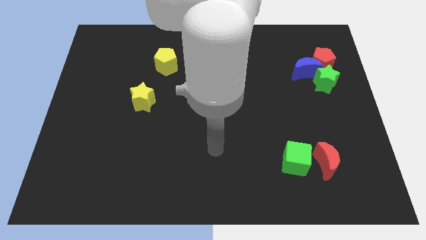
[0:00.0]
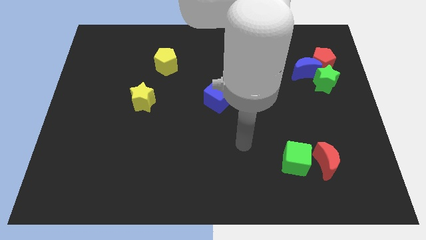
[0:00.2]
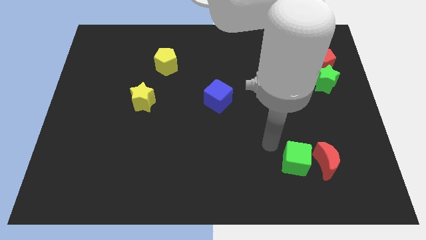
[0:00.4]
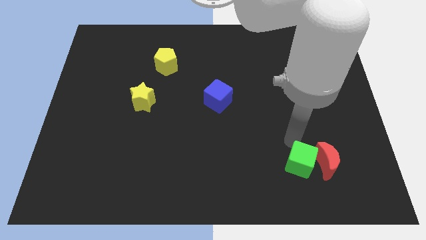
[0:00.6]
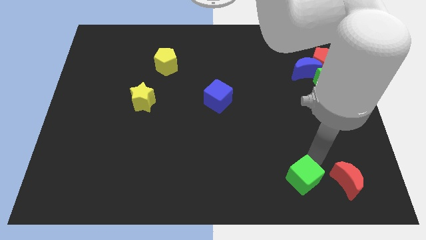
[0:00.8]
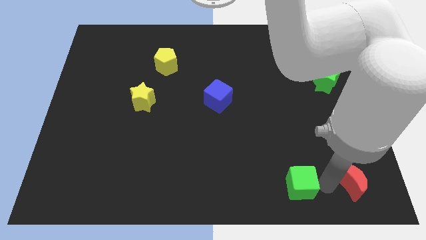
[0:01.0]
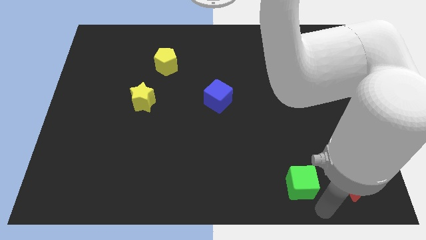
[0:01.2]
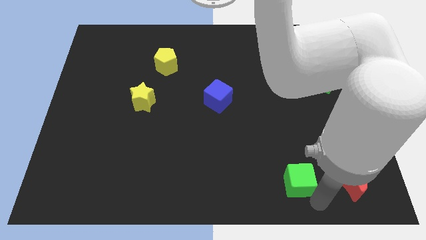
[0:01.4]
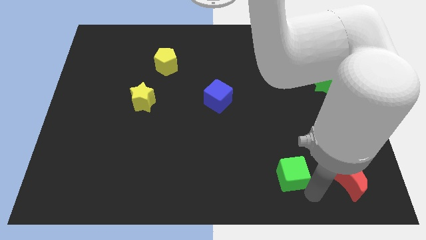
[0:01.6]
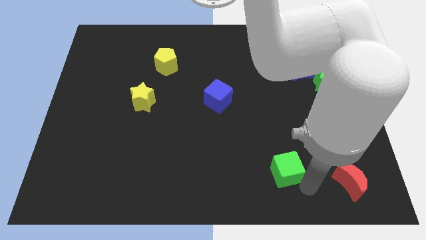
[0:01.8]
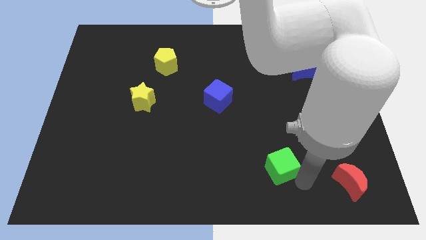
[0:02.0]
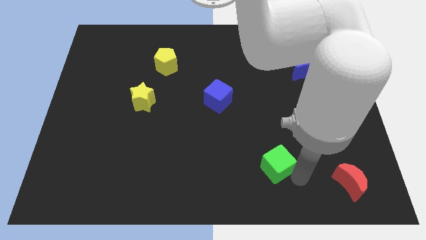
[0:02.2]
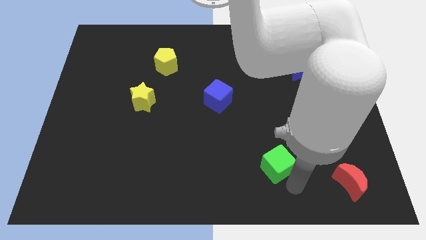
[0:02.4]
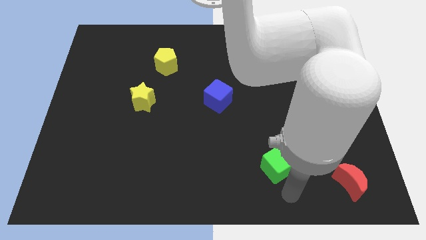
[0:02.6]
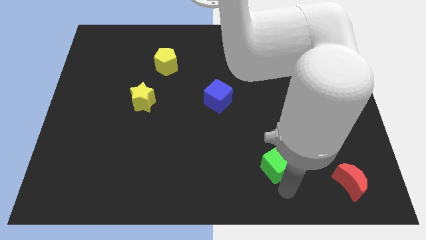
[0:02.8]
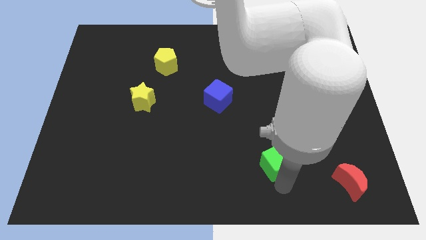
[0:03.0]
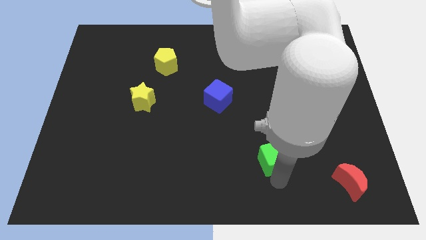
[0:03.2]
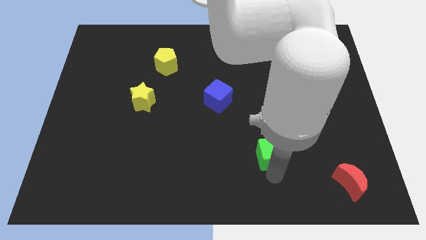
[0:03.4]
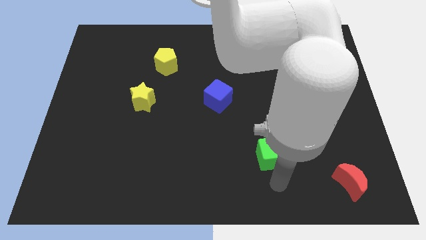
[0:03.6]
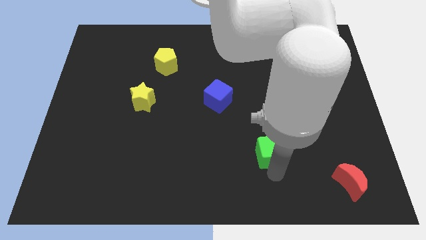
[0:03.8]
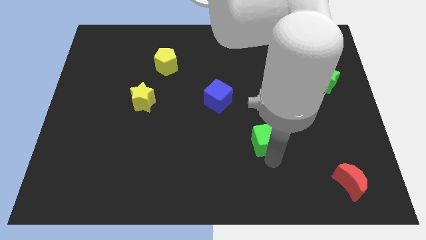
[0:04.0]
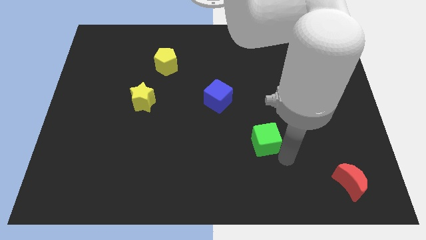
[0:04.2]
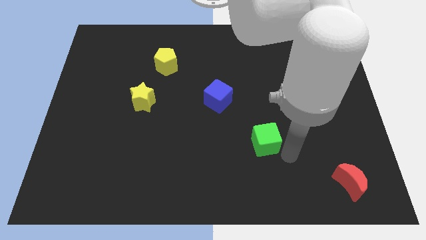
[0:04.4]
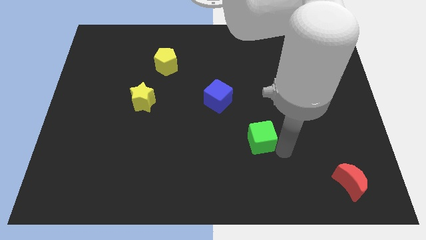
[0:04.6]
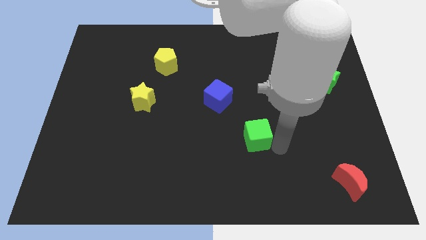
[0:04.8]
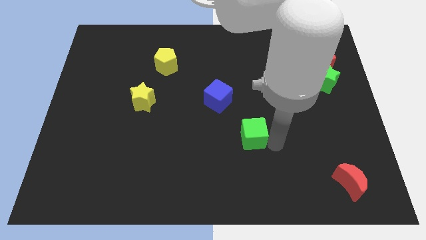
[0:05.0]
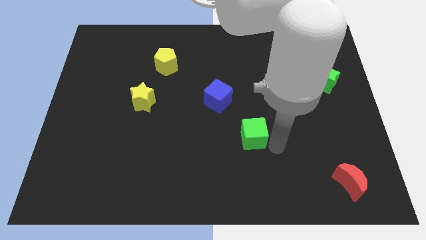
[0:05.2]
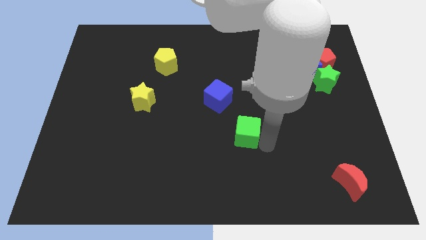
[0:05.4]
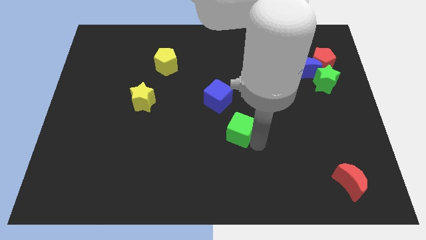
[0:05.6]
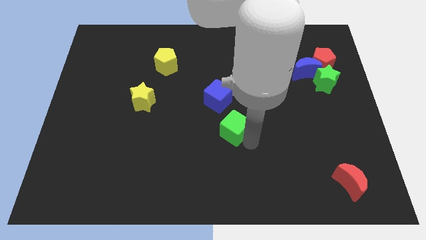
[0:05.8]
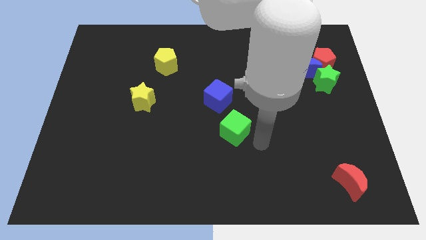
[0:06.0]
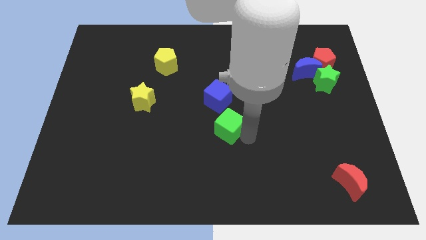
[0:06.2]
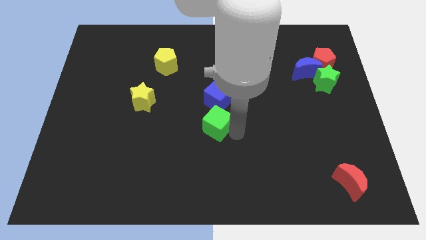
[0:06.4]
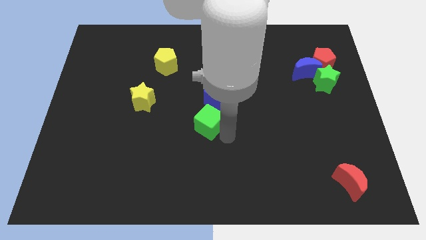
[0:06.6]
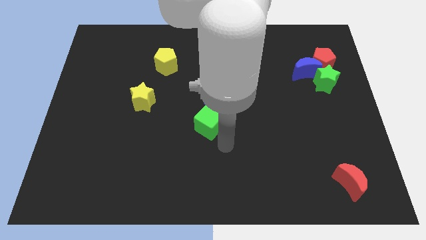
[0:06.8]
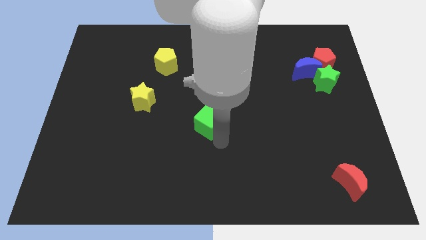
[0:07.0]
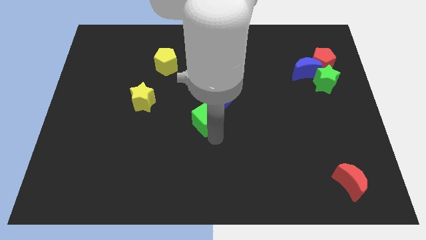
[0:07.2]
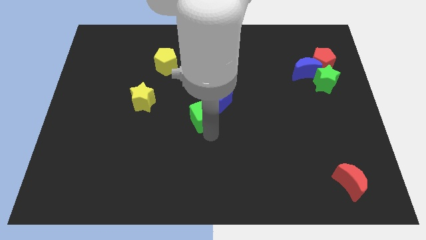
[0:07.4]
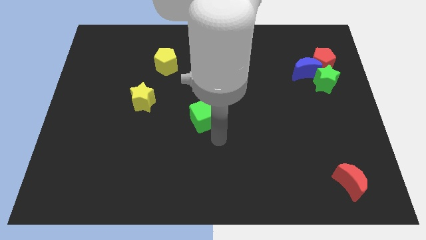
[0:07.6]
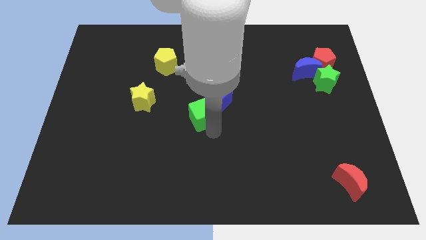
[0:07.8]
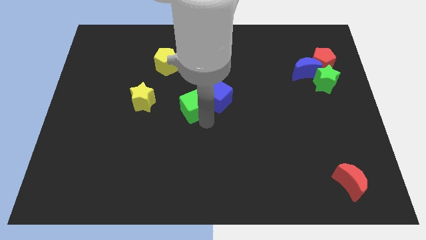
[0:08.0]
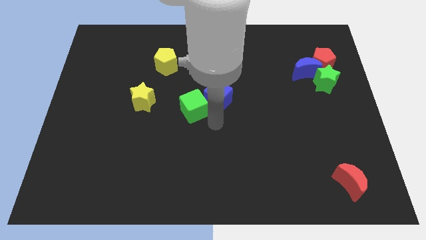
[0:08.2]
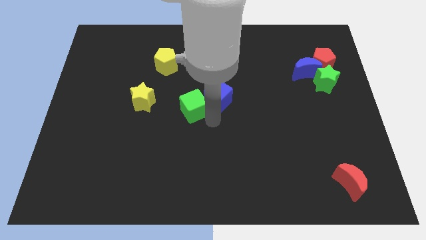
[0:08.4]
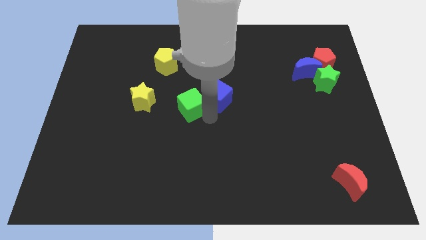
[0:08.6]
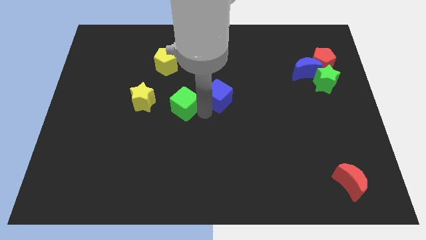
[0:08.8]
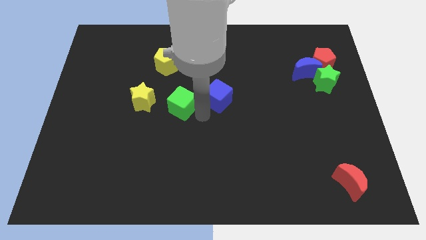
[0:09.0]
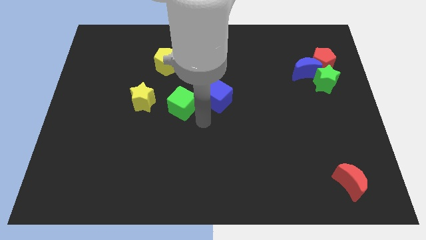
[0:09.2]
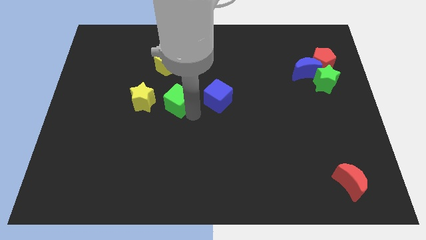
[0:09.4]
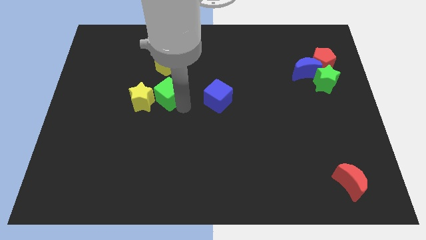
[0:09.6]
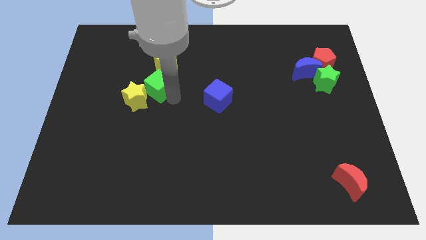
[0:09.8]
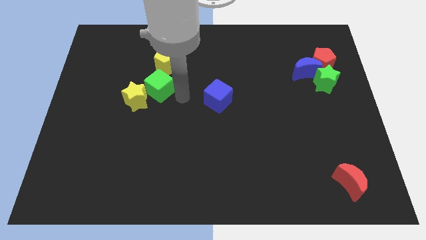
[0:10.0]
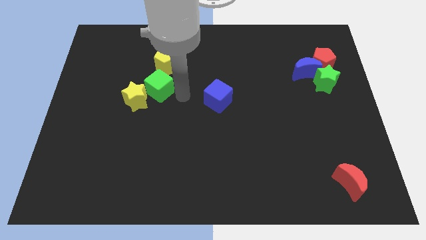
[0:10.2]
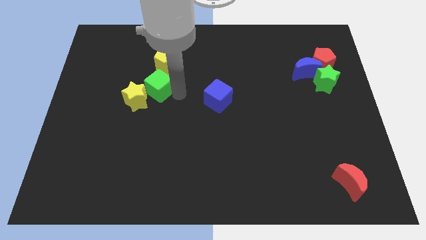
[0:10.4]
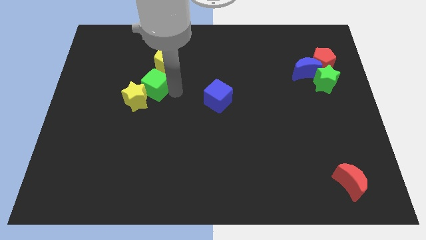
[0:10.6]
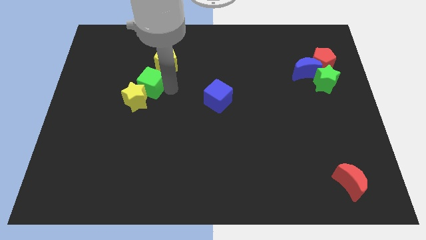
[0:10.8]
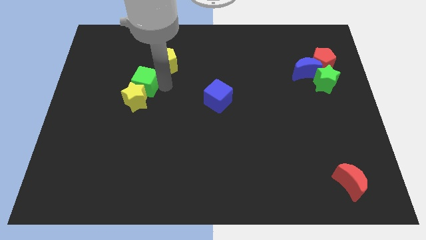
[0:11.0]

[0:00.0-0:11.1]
put the green cube diagonally up and to the left of the yellow star

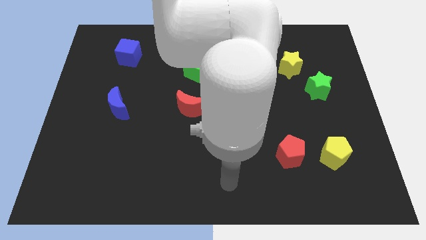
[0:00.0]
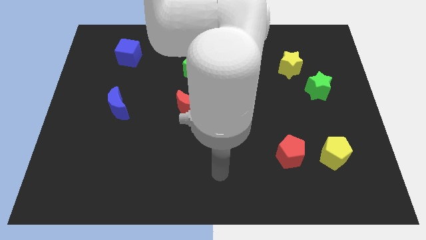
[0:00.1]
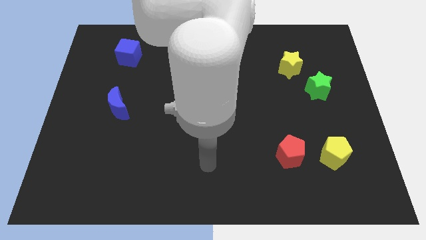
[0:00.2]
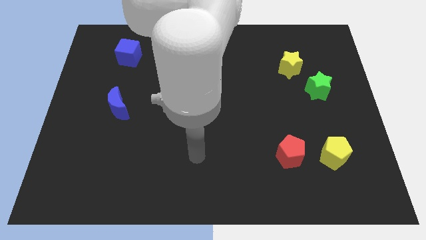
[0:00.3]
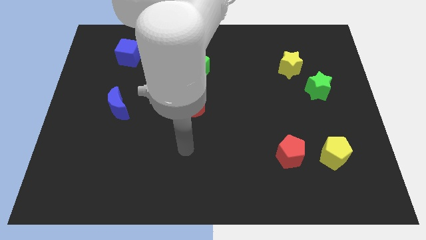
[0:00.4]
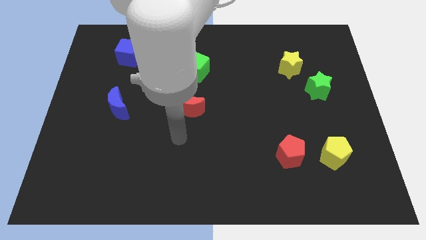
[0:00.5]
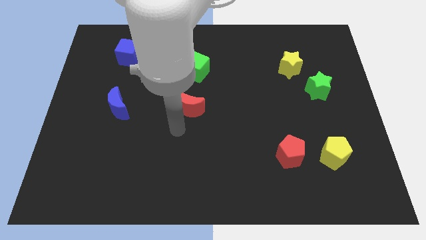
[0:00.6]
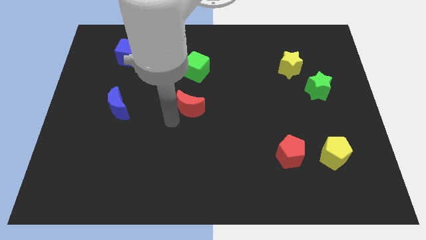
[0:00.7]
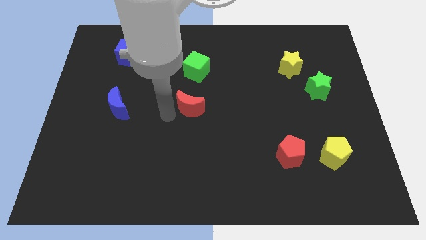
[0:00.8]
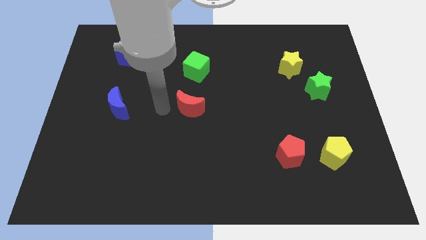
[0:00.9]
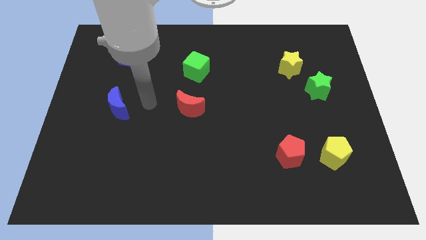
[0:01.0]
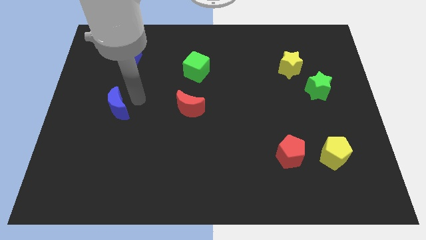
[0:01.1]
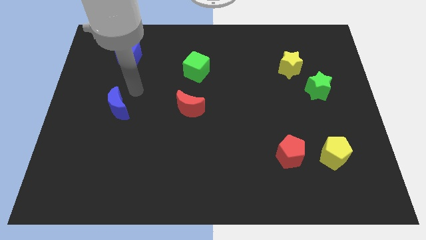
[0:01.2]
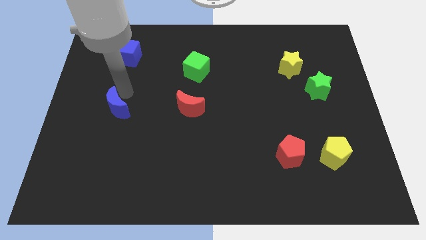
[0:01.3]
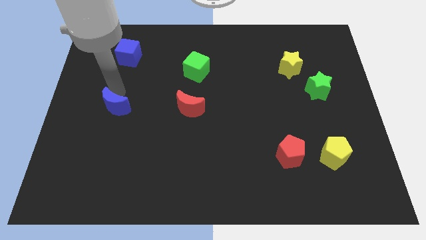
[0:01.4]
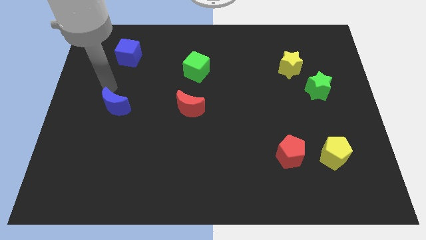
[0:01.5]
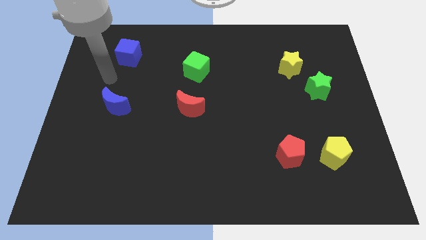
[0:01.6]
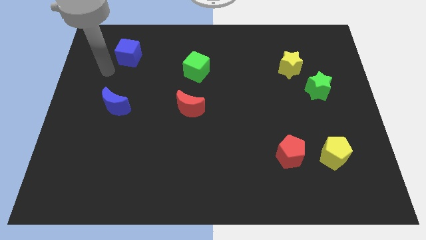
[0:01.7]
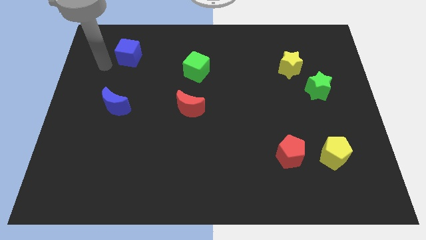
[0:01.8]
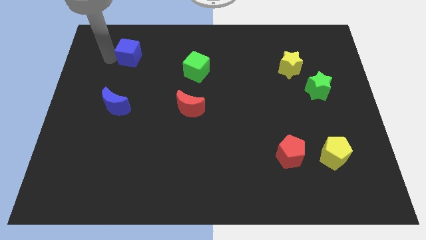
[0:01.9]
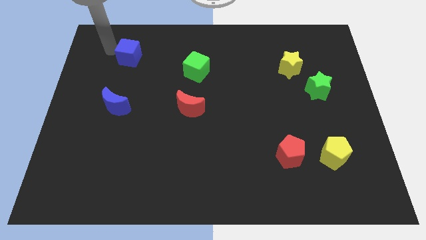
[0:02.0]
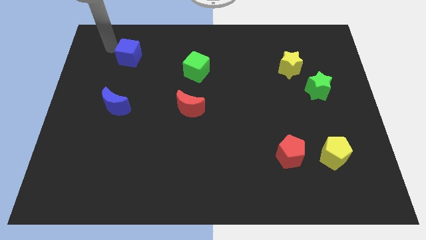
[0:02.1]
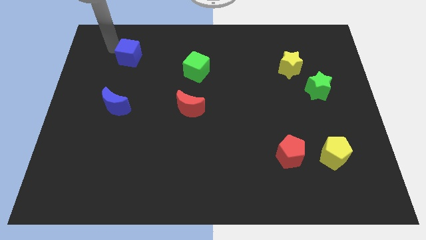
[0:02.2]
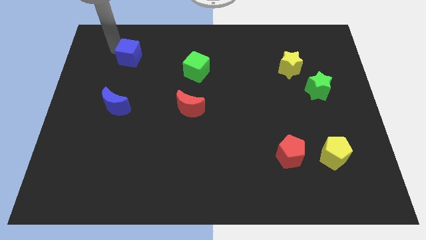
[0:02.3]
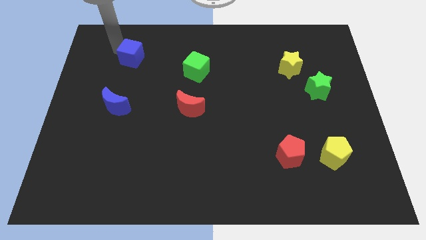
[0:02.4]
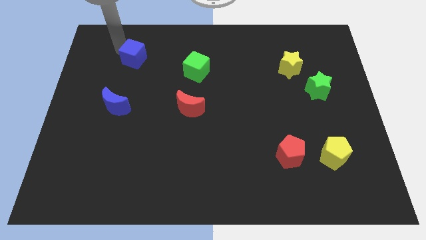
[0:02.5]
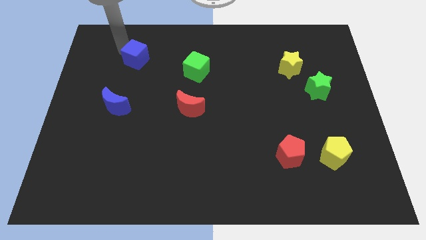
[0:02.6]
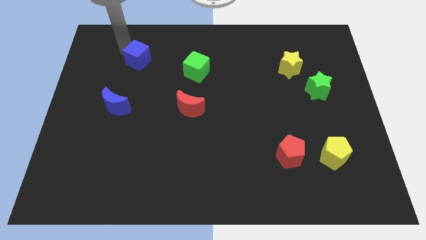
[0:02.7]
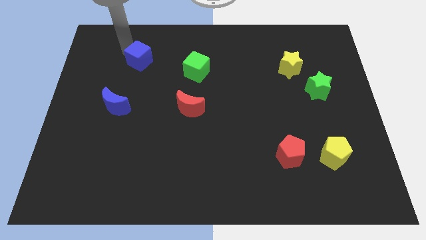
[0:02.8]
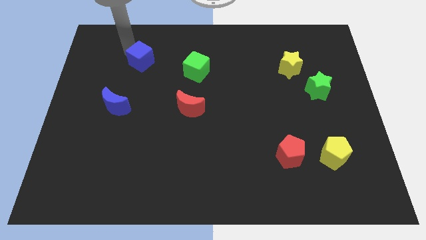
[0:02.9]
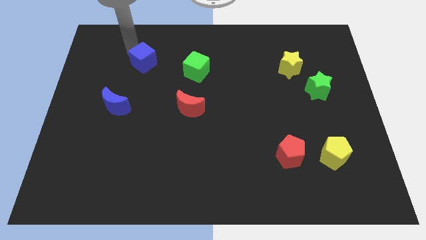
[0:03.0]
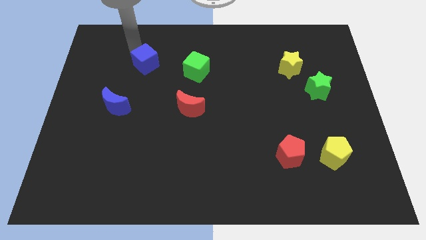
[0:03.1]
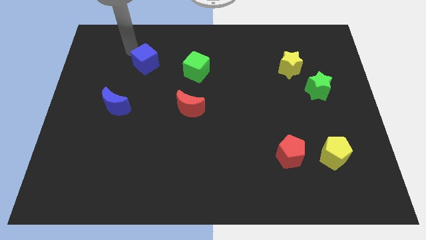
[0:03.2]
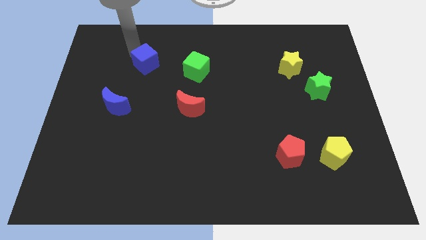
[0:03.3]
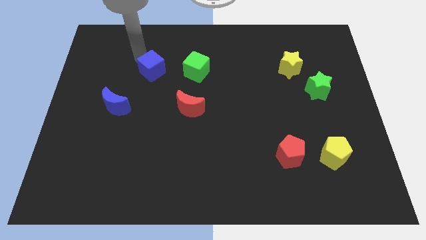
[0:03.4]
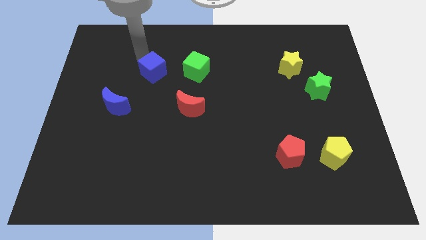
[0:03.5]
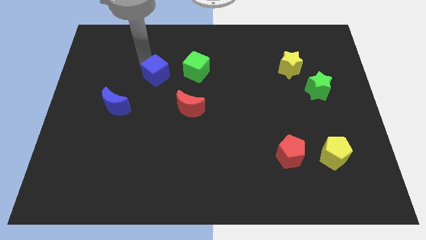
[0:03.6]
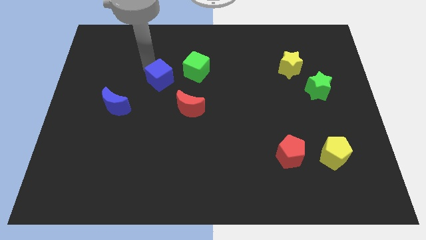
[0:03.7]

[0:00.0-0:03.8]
push the blue cube to the bottom left side of the green cube
